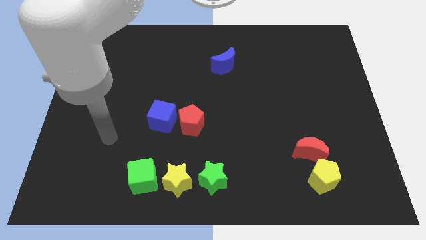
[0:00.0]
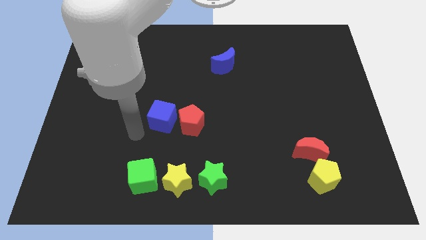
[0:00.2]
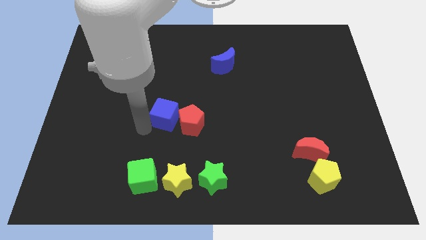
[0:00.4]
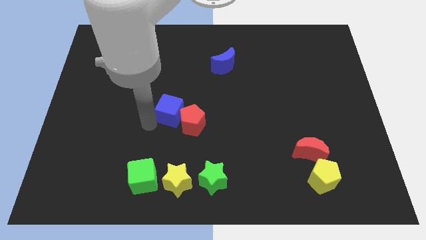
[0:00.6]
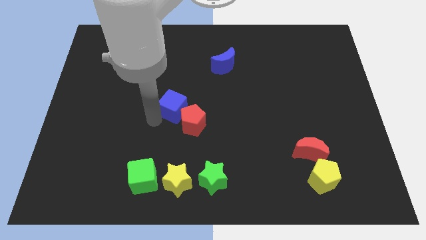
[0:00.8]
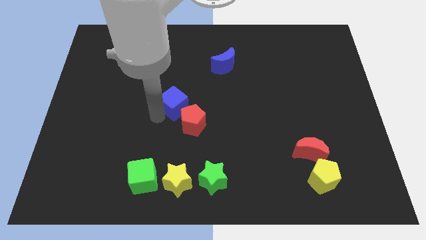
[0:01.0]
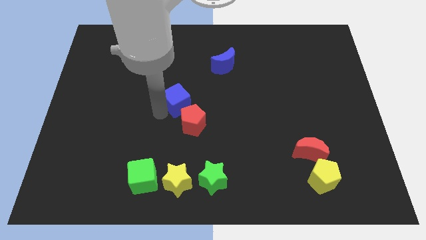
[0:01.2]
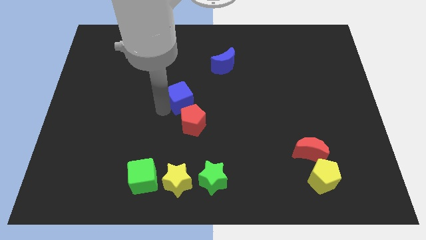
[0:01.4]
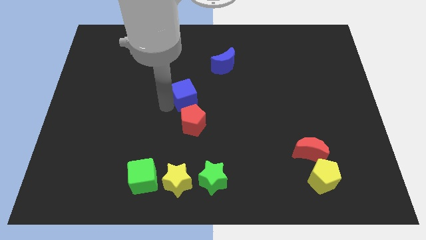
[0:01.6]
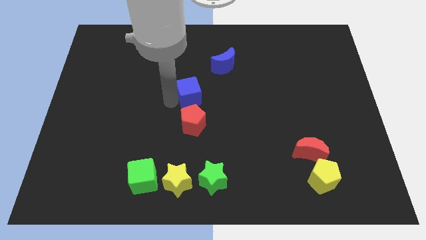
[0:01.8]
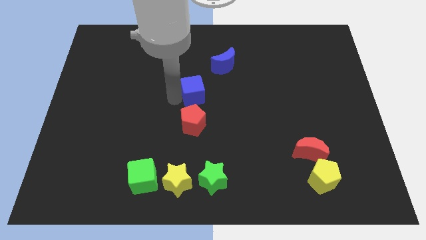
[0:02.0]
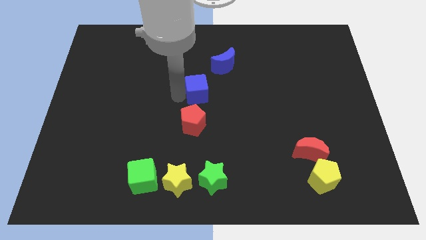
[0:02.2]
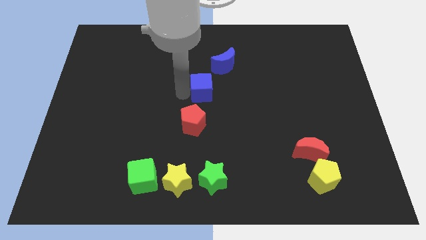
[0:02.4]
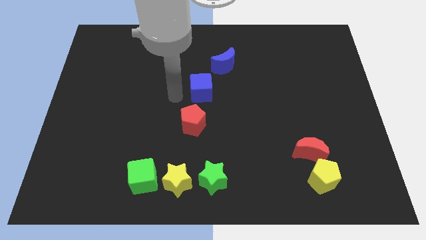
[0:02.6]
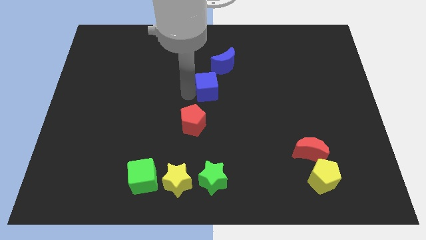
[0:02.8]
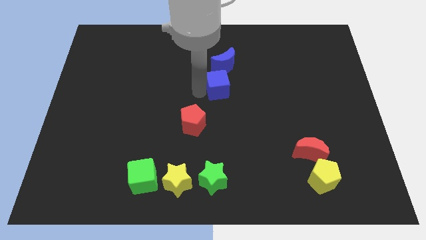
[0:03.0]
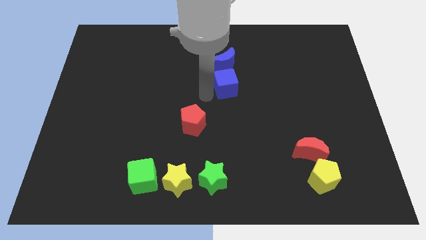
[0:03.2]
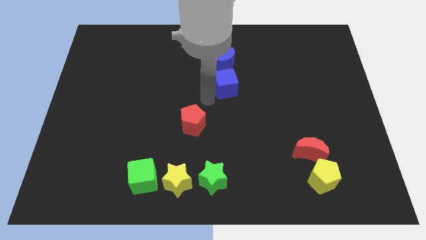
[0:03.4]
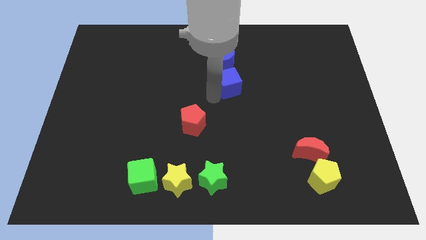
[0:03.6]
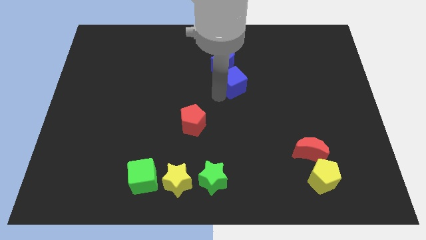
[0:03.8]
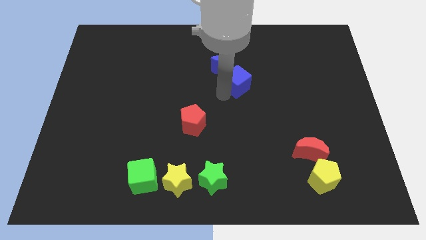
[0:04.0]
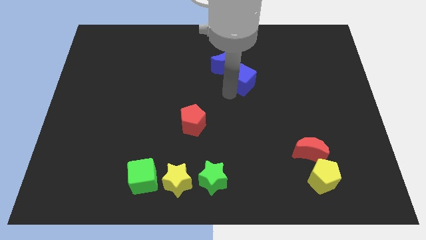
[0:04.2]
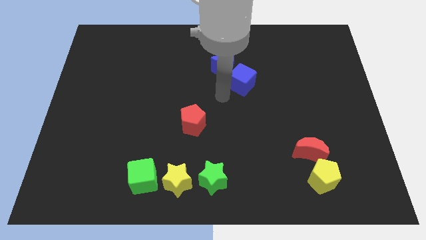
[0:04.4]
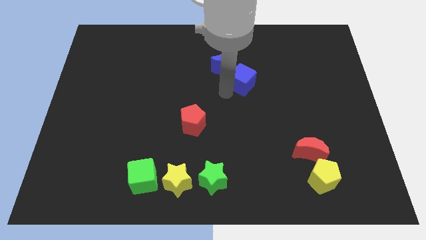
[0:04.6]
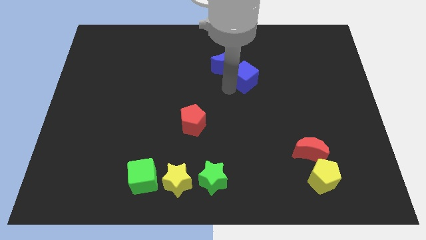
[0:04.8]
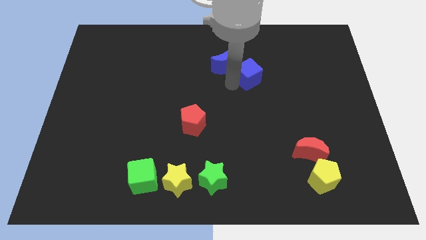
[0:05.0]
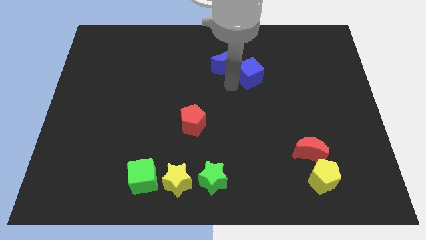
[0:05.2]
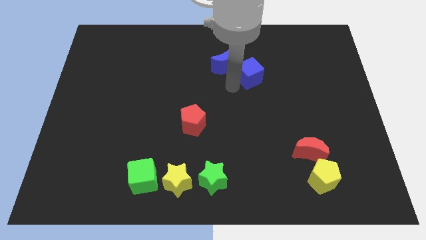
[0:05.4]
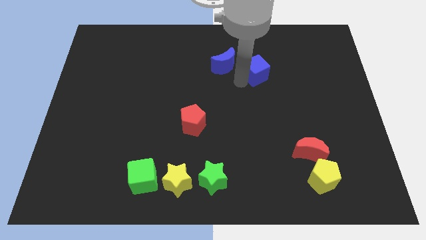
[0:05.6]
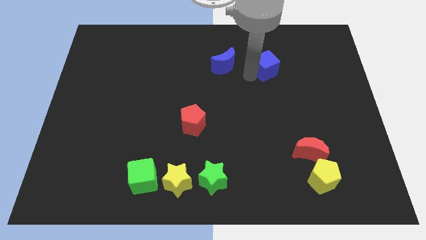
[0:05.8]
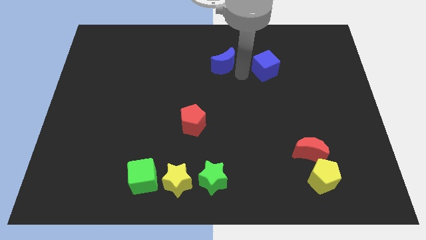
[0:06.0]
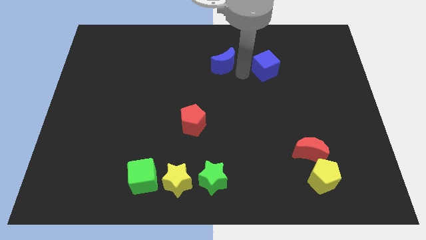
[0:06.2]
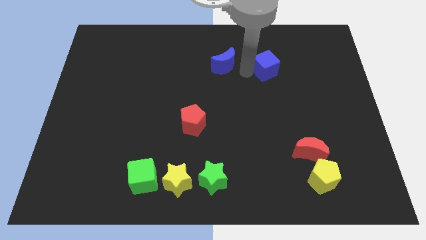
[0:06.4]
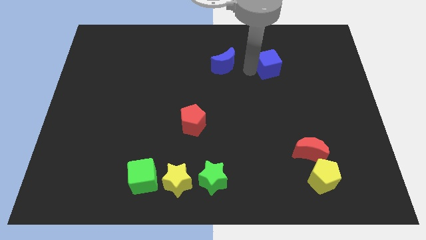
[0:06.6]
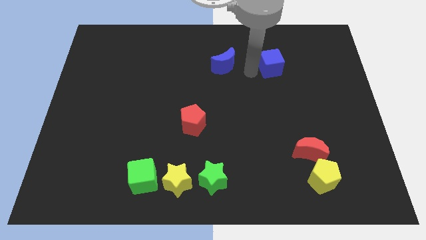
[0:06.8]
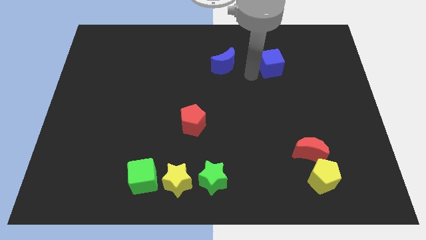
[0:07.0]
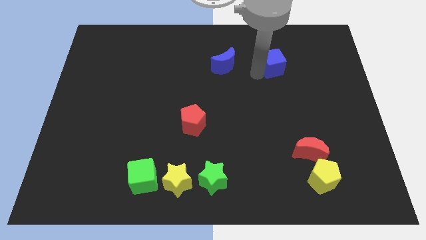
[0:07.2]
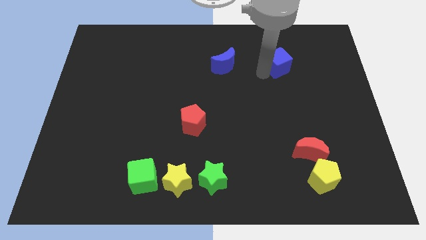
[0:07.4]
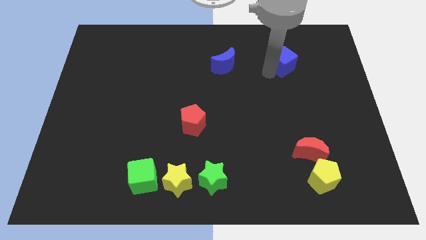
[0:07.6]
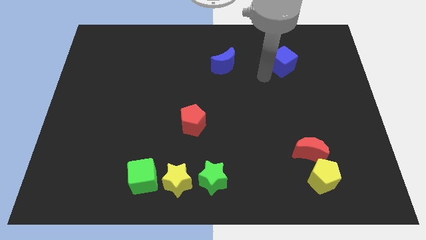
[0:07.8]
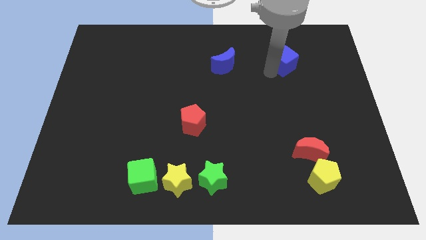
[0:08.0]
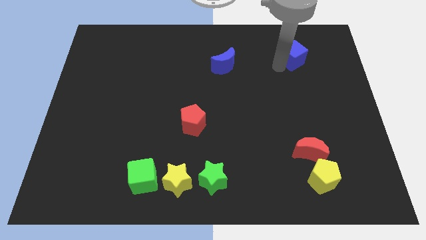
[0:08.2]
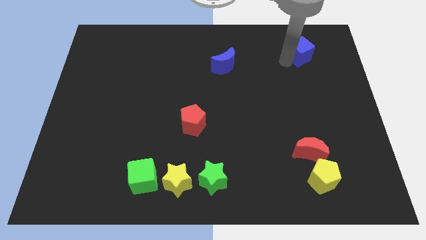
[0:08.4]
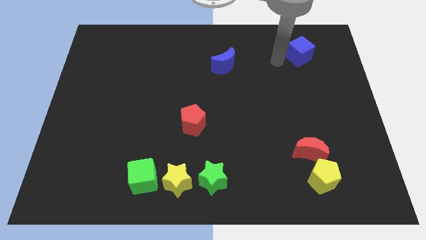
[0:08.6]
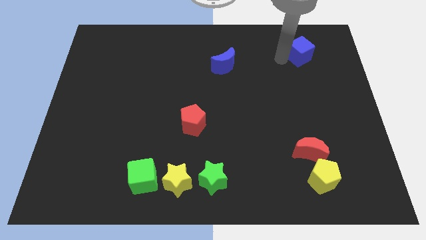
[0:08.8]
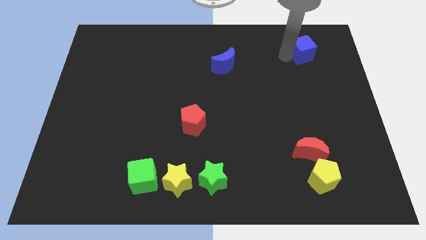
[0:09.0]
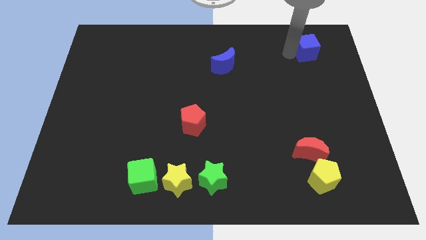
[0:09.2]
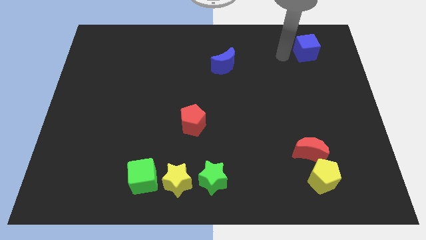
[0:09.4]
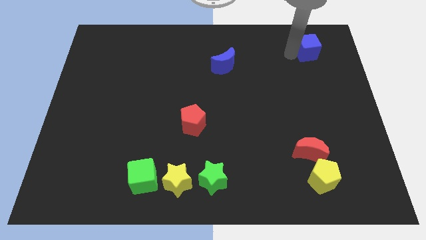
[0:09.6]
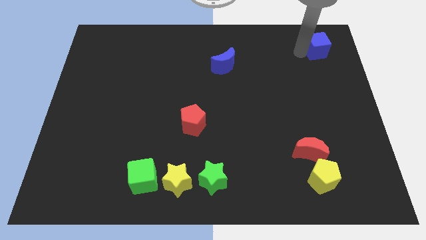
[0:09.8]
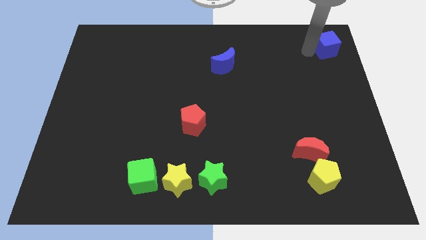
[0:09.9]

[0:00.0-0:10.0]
slide the blue cube to the upper right corner

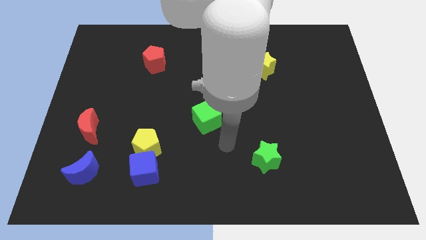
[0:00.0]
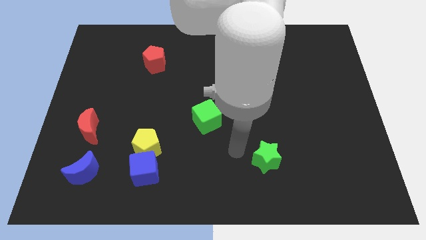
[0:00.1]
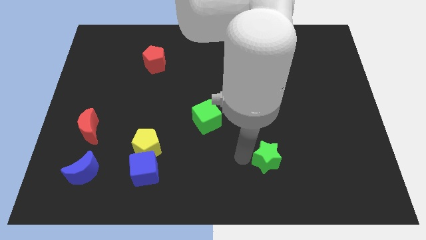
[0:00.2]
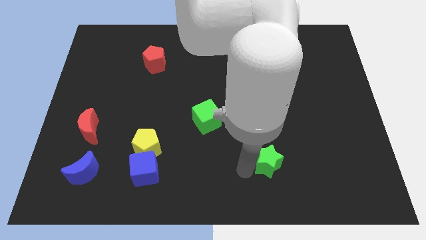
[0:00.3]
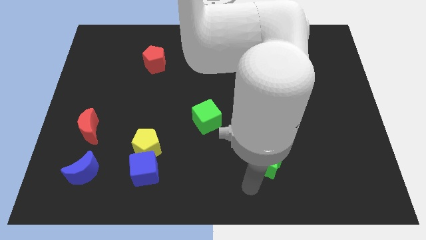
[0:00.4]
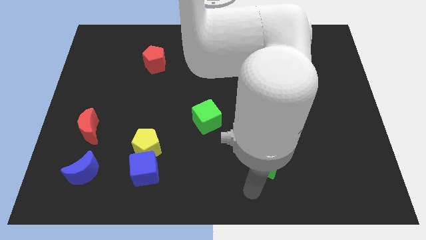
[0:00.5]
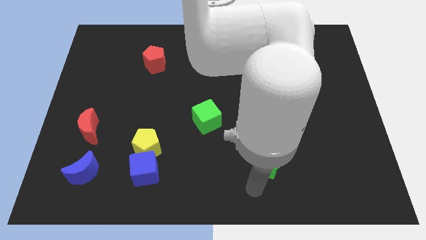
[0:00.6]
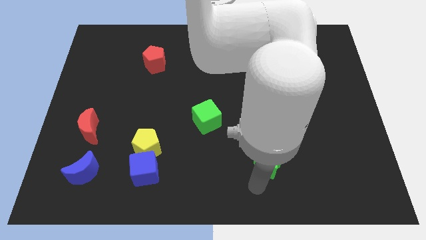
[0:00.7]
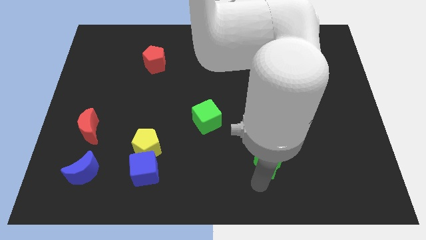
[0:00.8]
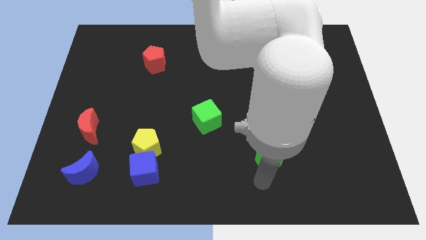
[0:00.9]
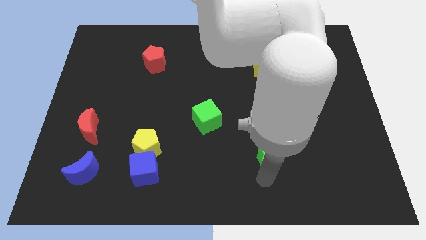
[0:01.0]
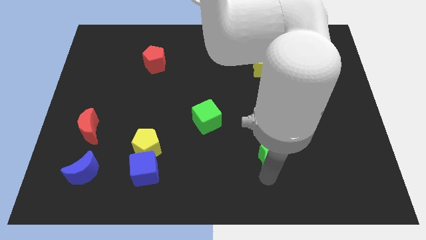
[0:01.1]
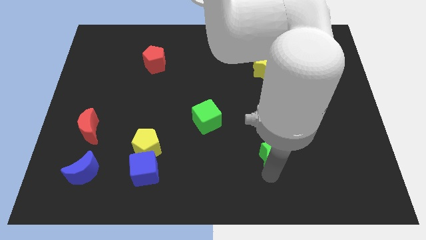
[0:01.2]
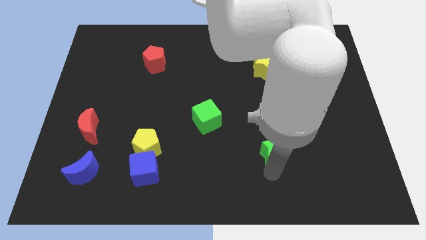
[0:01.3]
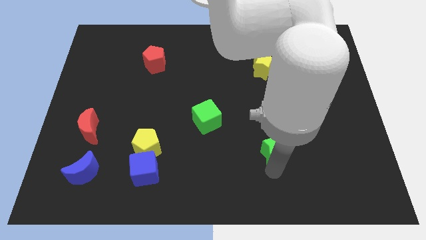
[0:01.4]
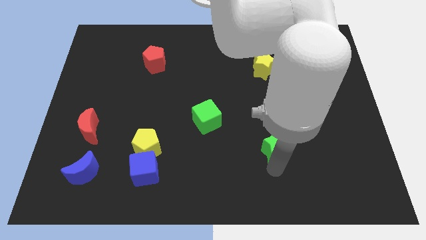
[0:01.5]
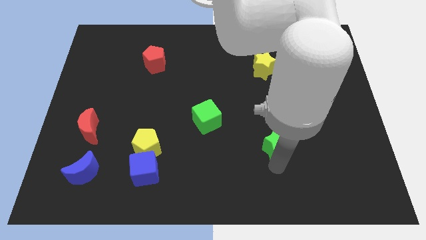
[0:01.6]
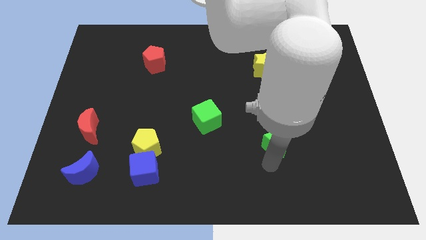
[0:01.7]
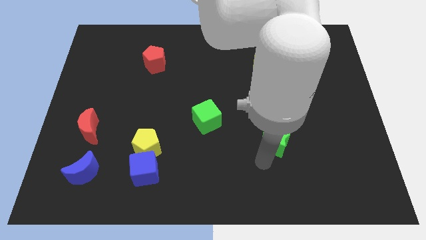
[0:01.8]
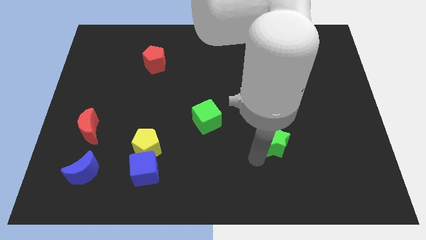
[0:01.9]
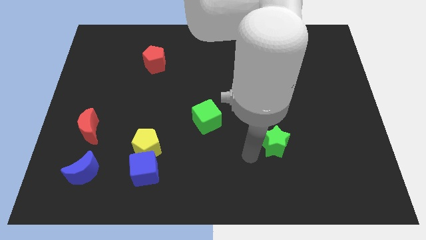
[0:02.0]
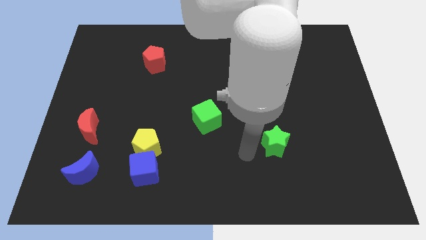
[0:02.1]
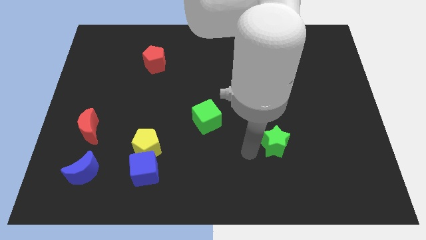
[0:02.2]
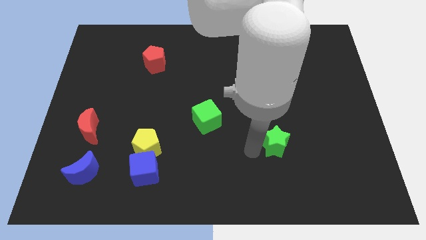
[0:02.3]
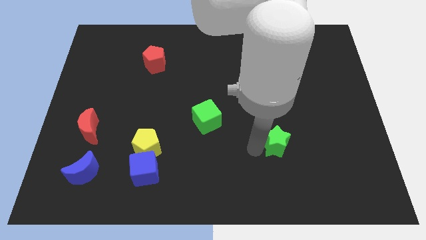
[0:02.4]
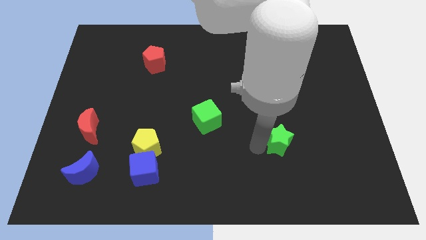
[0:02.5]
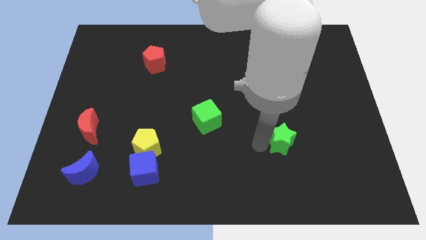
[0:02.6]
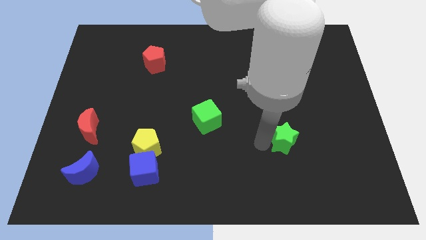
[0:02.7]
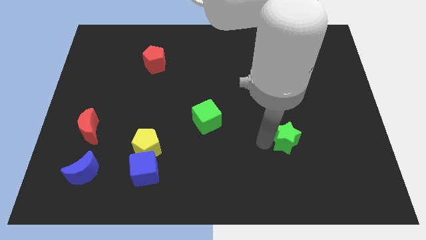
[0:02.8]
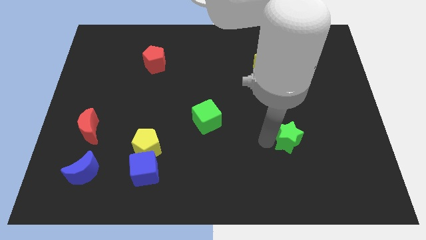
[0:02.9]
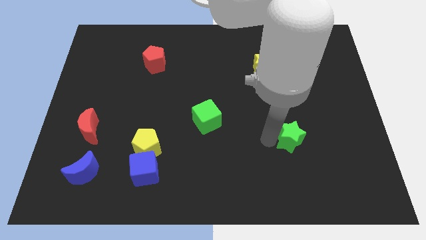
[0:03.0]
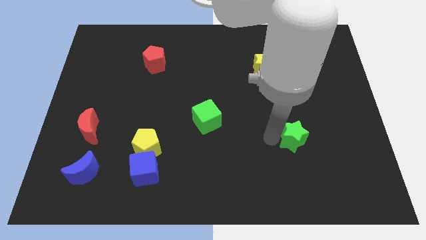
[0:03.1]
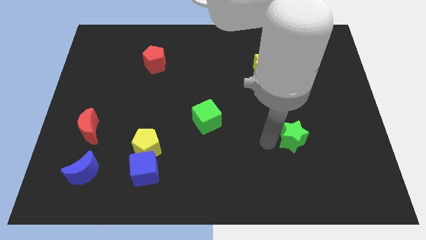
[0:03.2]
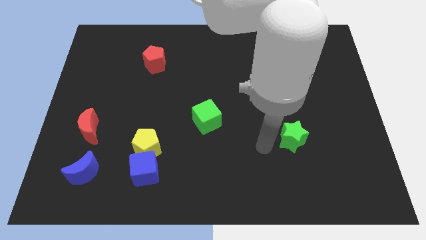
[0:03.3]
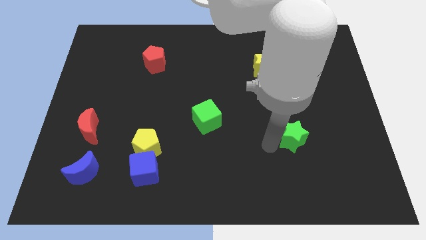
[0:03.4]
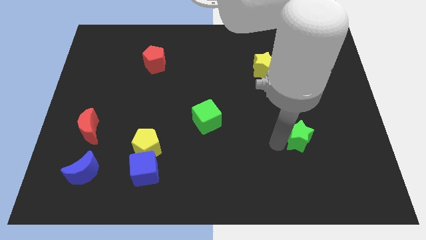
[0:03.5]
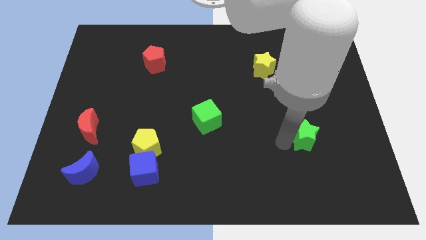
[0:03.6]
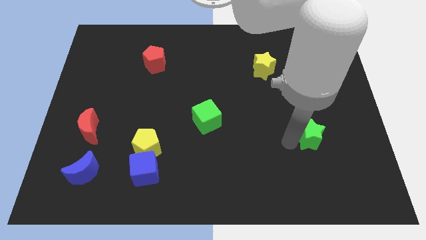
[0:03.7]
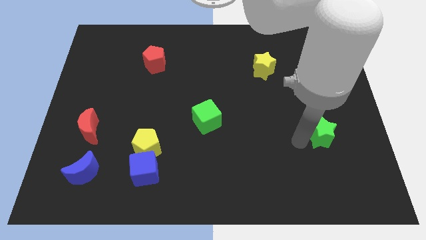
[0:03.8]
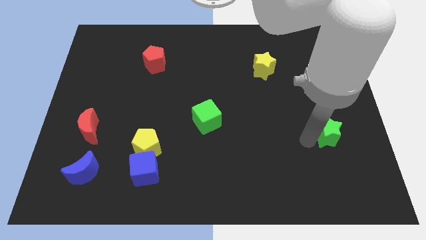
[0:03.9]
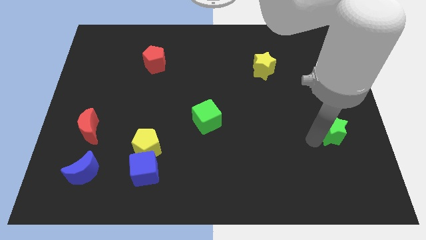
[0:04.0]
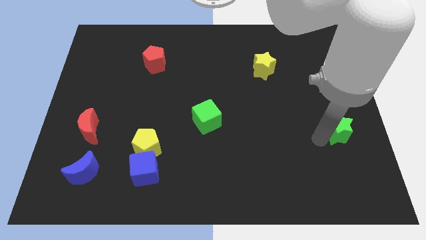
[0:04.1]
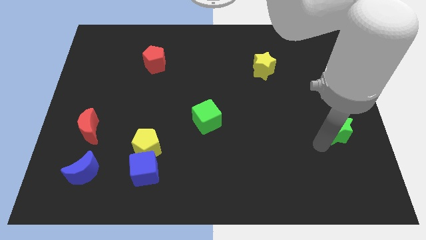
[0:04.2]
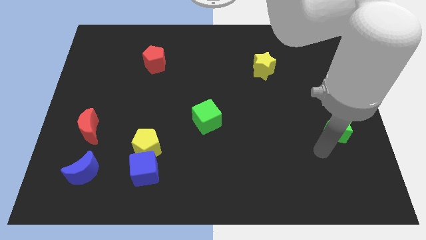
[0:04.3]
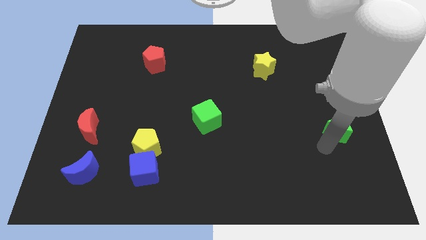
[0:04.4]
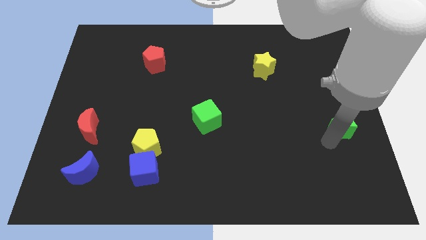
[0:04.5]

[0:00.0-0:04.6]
put the green star to the right side of the board
